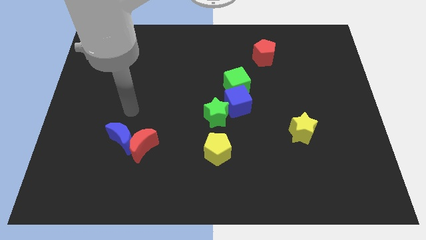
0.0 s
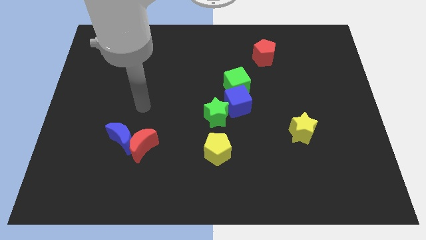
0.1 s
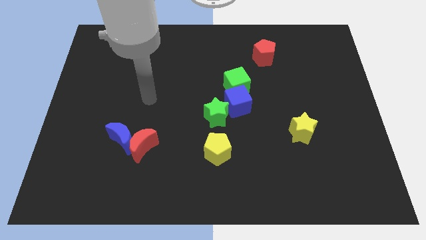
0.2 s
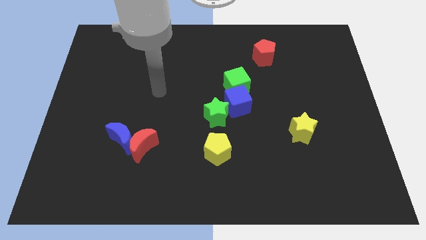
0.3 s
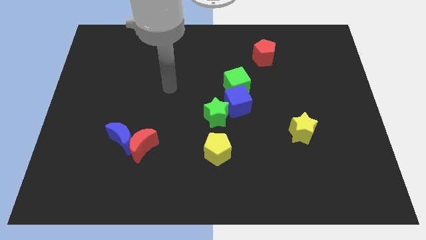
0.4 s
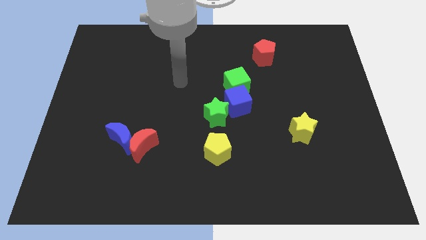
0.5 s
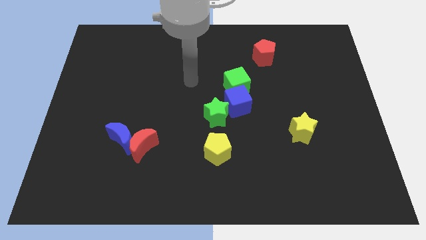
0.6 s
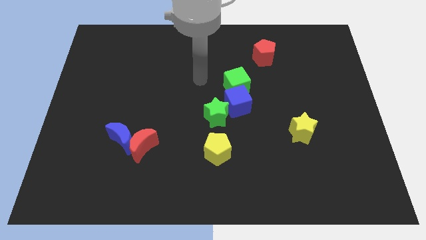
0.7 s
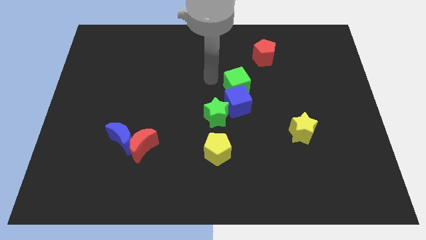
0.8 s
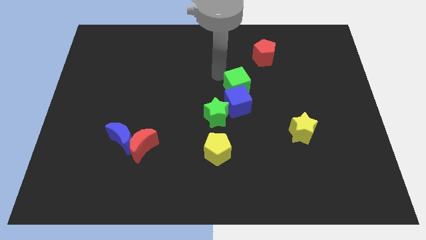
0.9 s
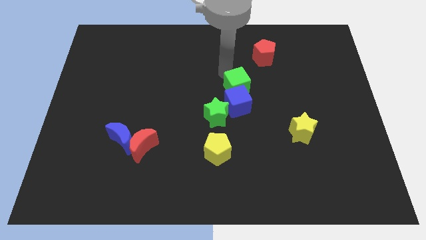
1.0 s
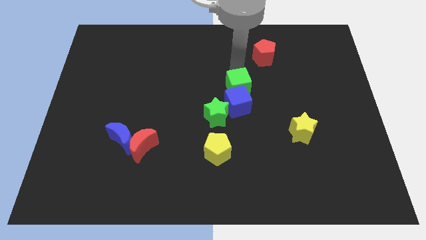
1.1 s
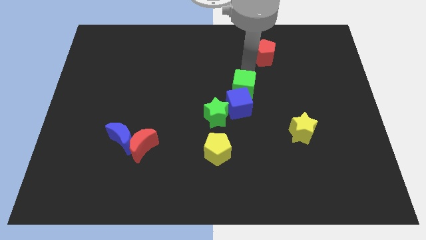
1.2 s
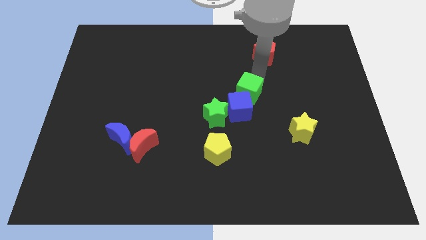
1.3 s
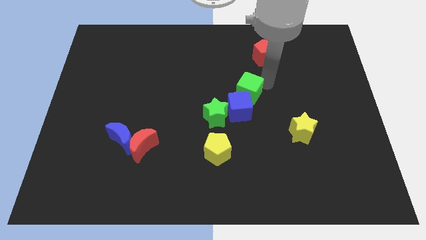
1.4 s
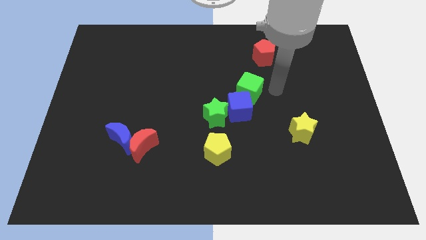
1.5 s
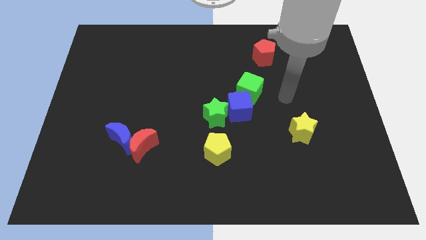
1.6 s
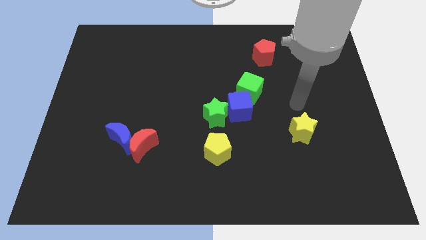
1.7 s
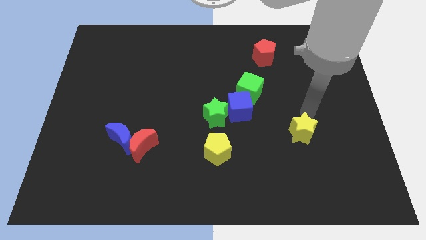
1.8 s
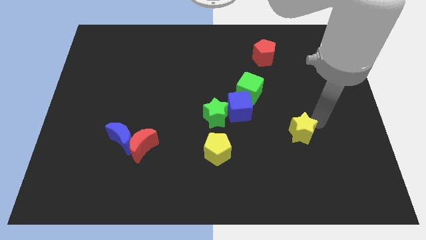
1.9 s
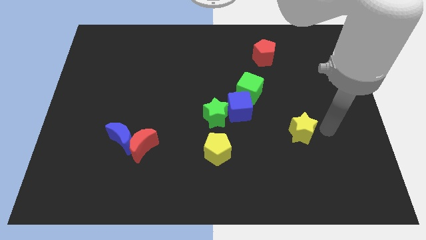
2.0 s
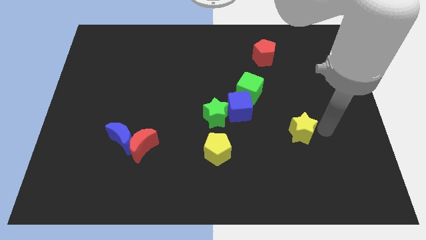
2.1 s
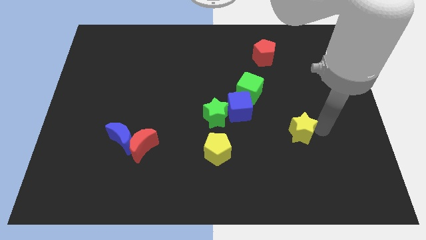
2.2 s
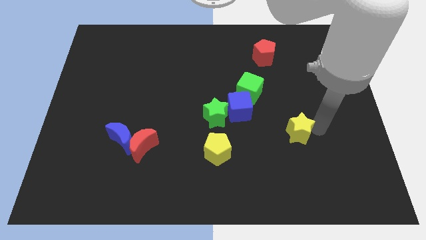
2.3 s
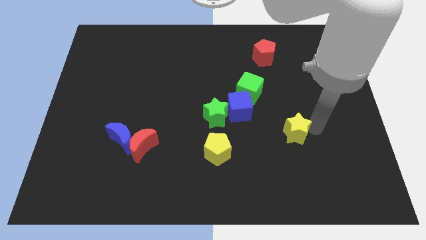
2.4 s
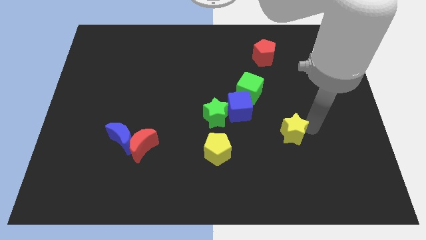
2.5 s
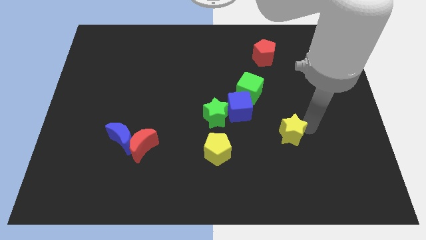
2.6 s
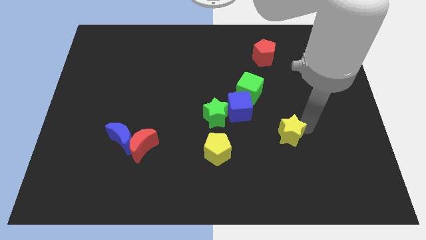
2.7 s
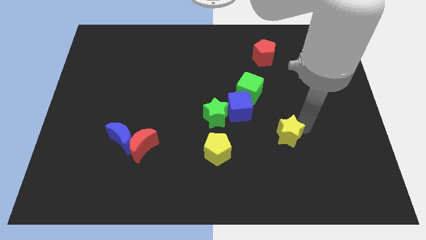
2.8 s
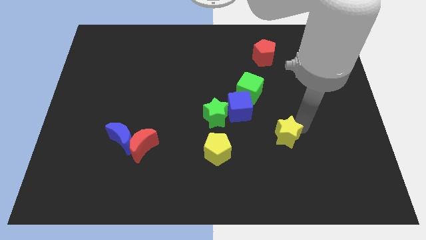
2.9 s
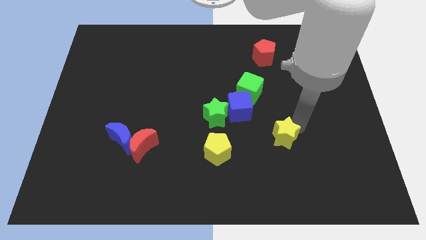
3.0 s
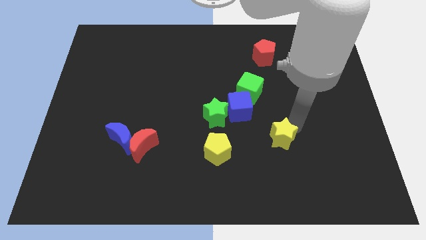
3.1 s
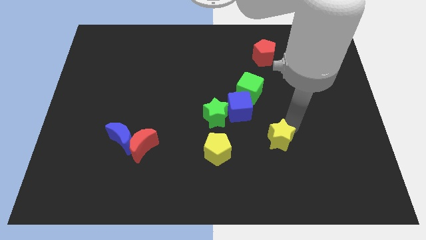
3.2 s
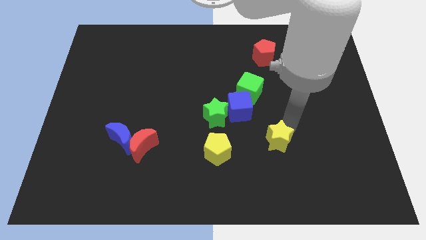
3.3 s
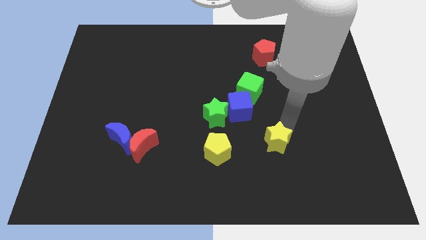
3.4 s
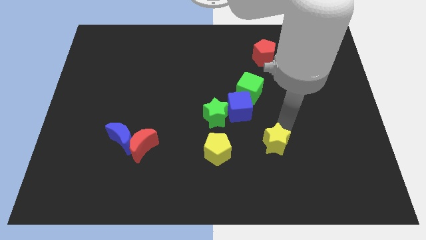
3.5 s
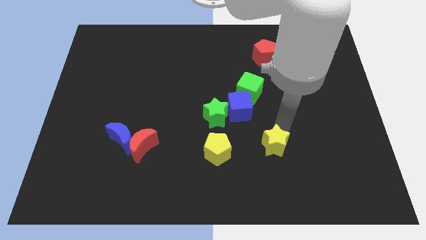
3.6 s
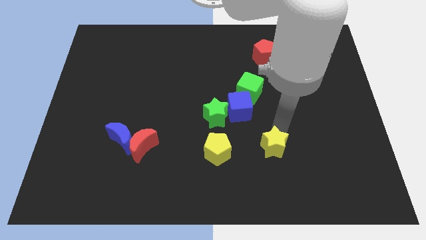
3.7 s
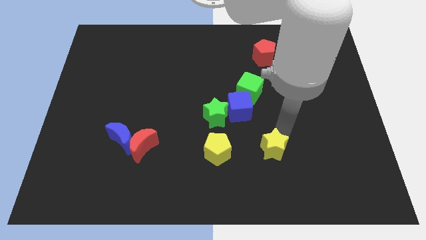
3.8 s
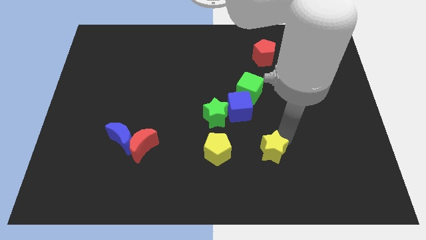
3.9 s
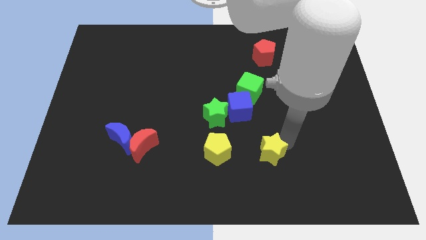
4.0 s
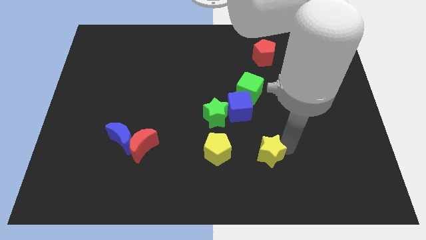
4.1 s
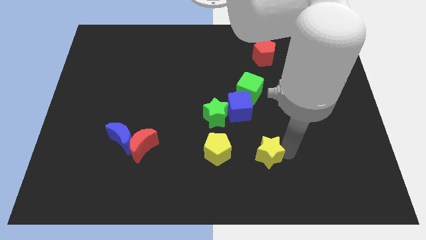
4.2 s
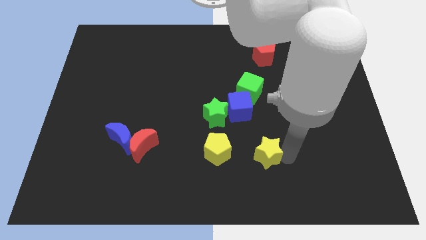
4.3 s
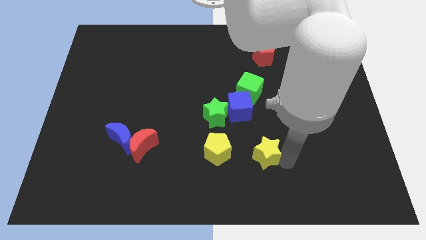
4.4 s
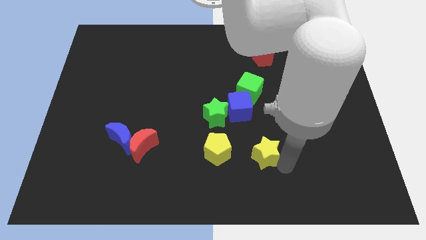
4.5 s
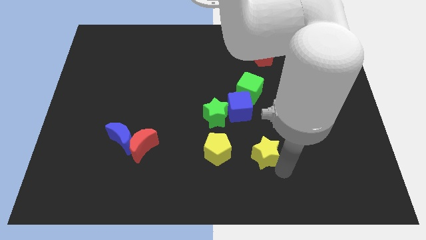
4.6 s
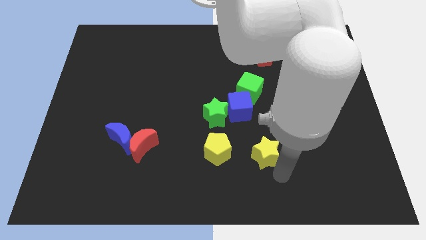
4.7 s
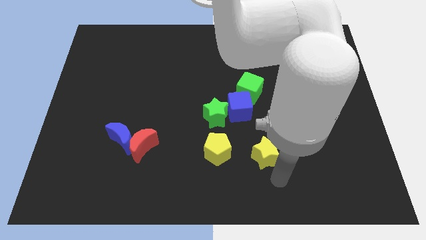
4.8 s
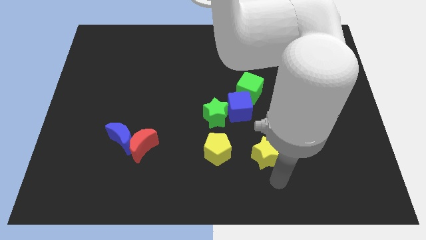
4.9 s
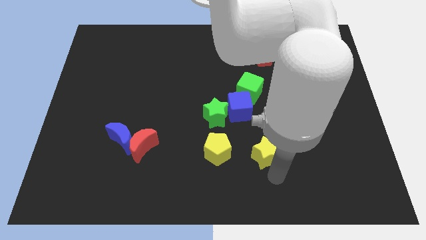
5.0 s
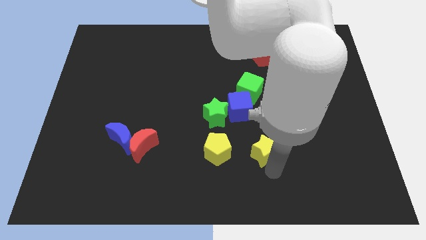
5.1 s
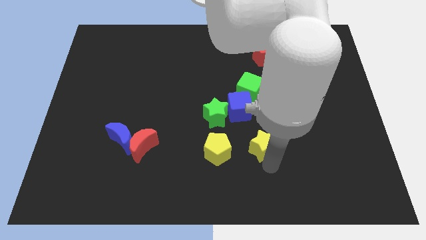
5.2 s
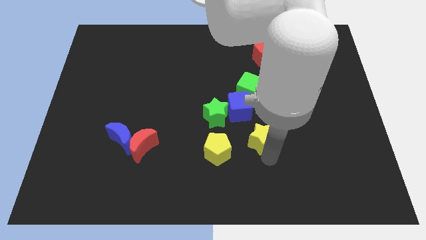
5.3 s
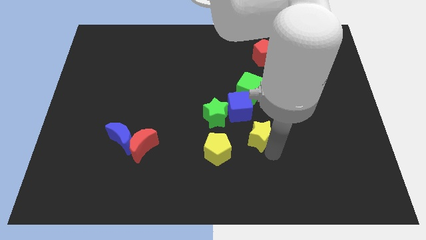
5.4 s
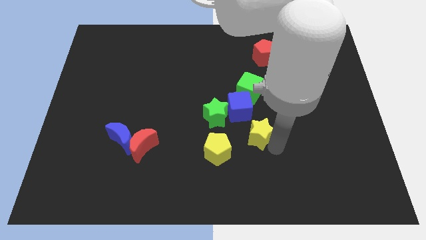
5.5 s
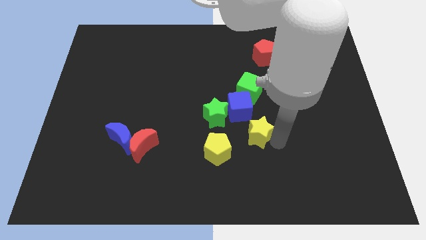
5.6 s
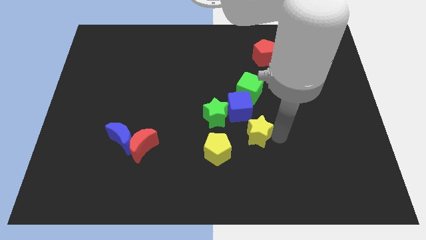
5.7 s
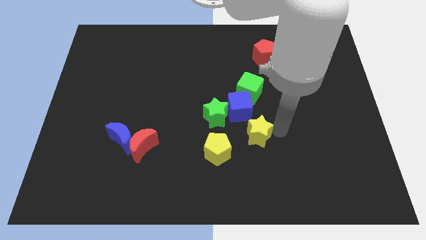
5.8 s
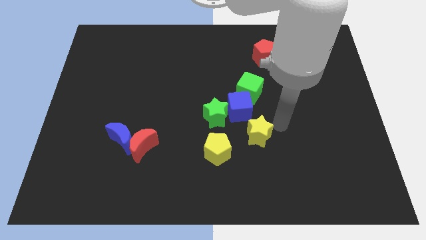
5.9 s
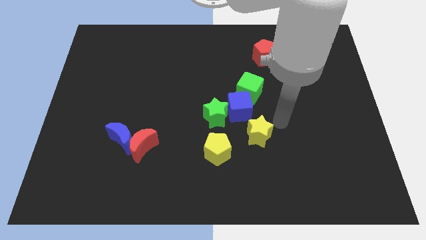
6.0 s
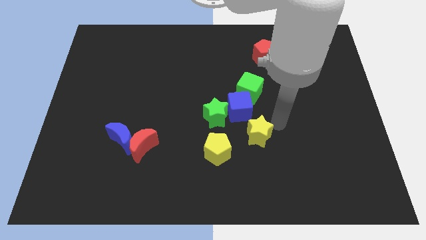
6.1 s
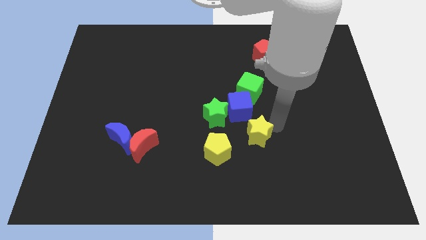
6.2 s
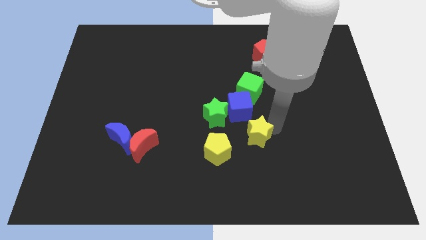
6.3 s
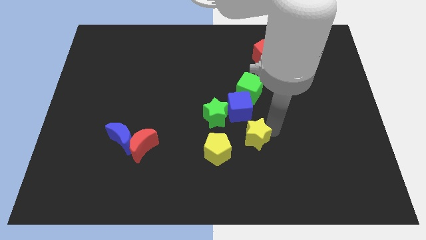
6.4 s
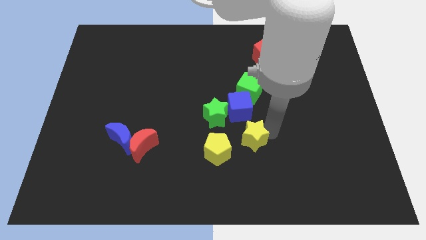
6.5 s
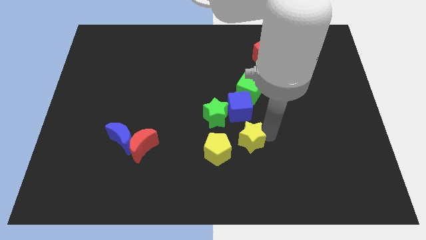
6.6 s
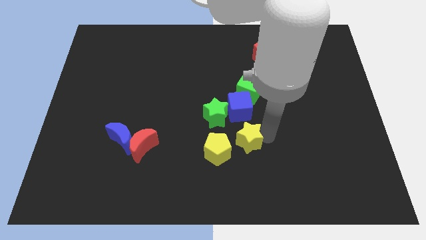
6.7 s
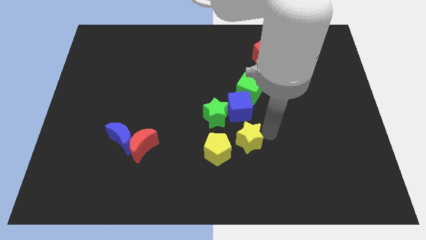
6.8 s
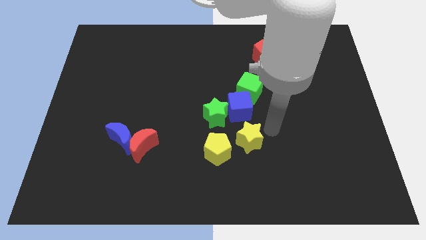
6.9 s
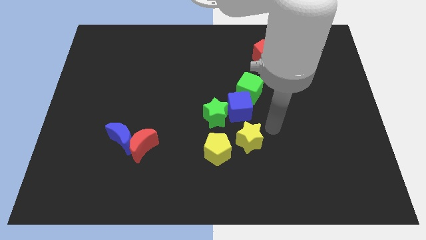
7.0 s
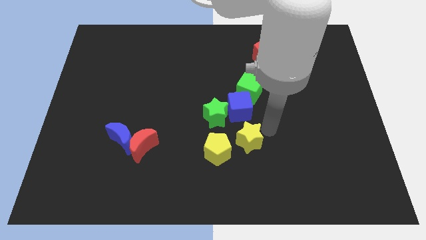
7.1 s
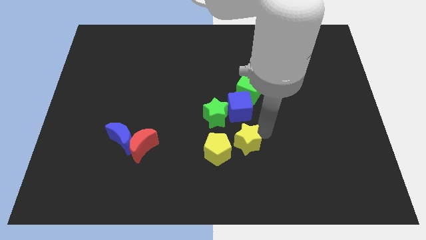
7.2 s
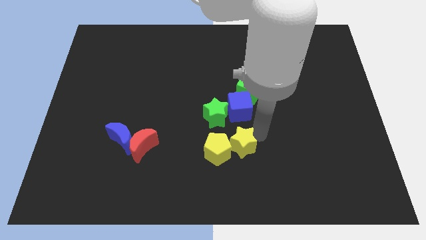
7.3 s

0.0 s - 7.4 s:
put the yellow star close to the yellow pentagon

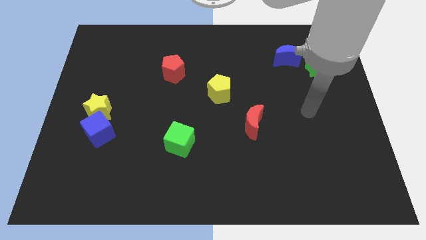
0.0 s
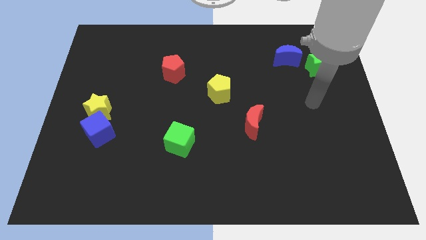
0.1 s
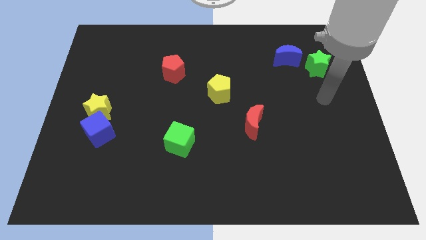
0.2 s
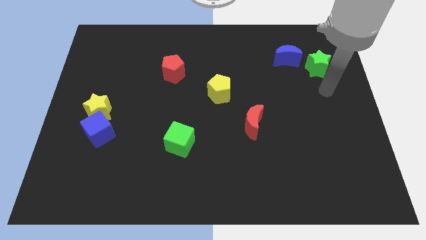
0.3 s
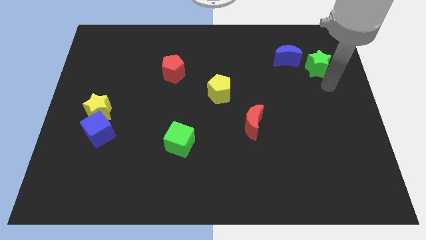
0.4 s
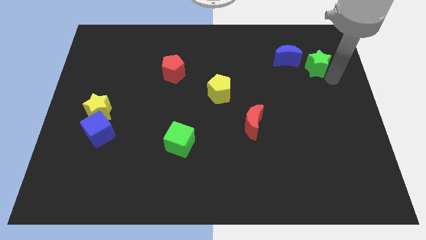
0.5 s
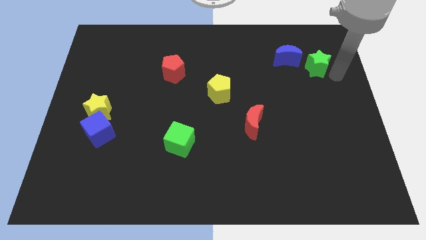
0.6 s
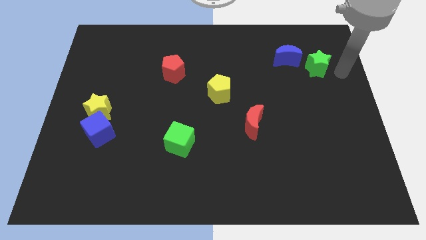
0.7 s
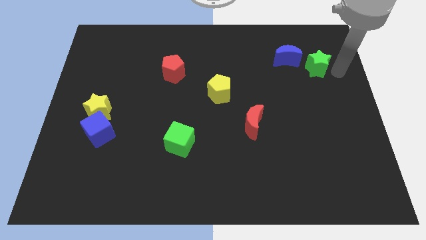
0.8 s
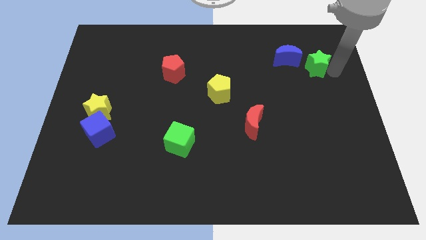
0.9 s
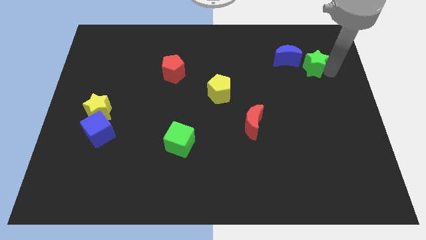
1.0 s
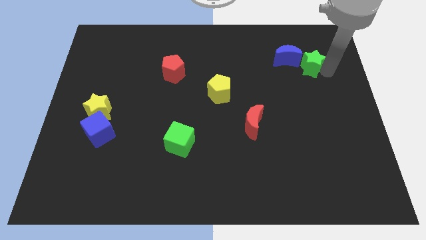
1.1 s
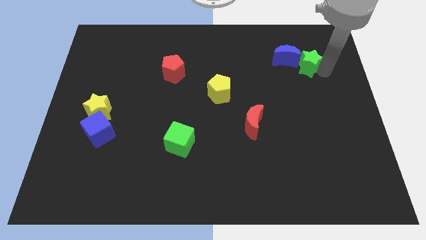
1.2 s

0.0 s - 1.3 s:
put the green star next to the blue moon
